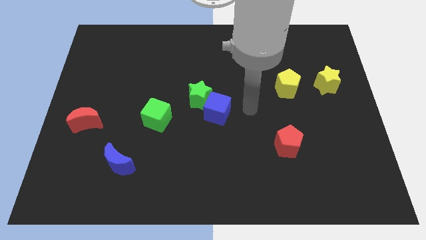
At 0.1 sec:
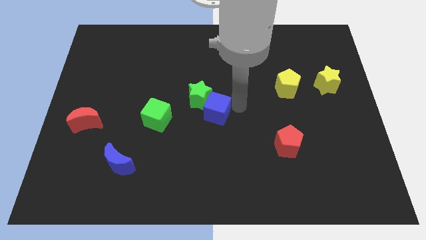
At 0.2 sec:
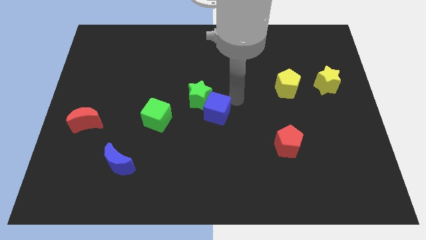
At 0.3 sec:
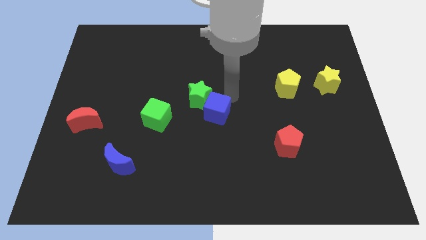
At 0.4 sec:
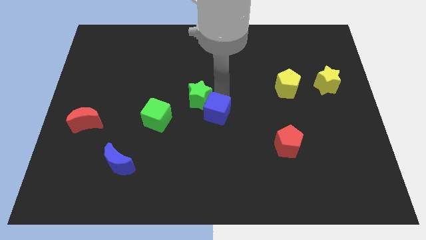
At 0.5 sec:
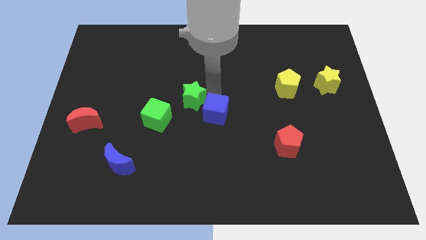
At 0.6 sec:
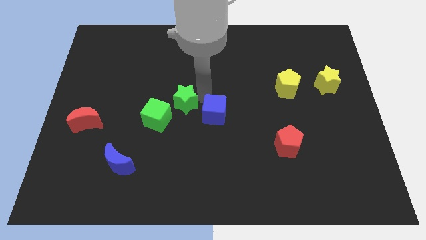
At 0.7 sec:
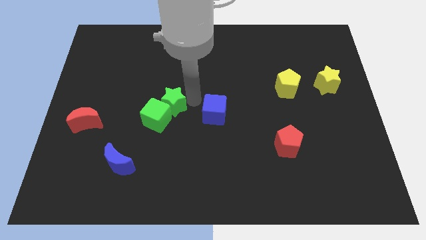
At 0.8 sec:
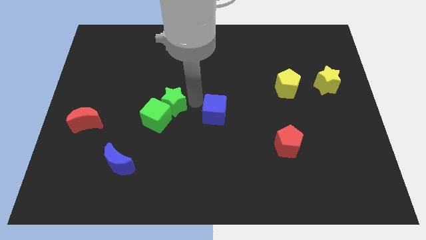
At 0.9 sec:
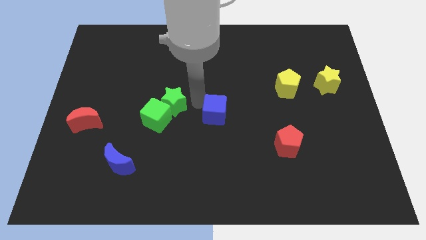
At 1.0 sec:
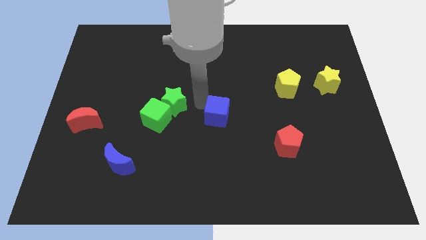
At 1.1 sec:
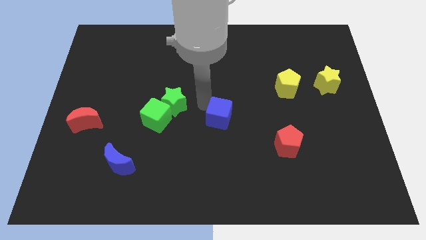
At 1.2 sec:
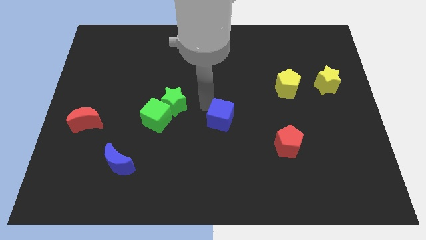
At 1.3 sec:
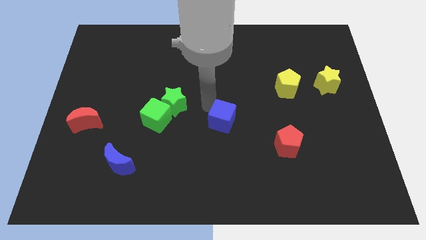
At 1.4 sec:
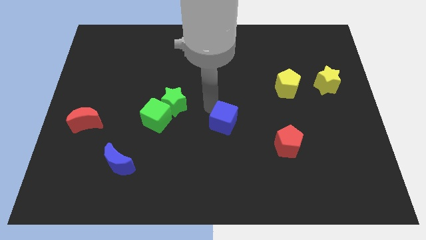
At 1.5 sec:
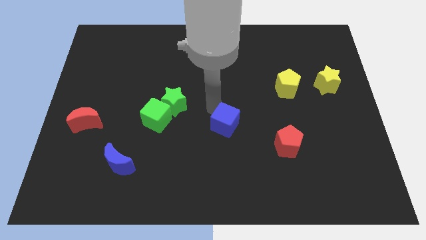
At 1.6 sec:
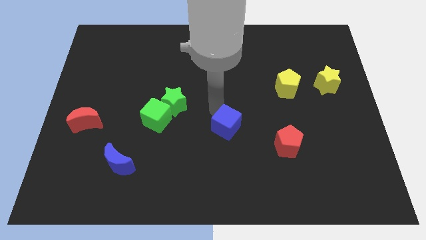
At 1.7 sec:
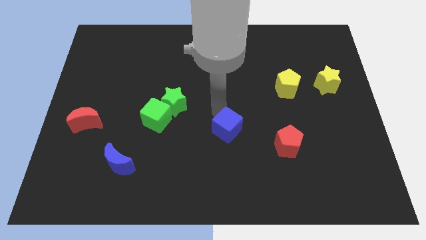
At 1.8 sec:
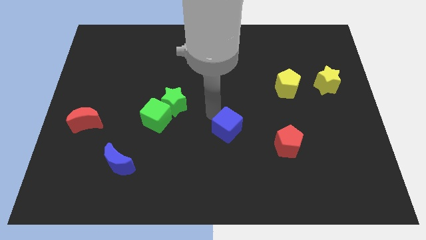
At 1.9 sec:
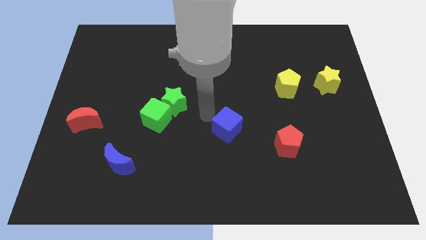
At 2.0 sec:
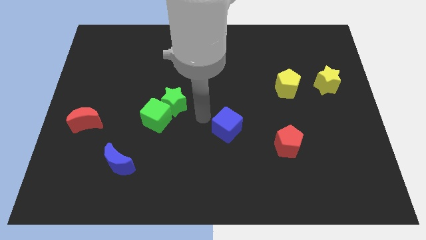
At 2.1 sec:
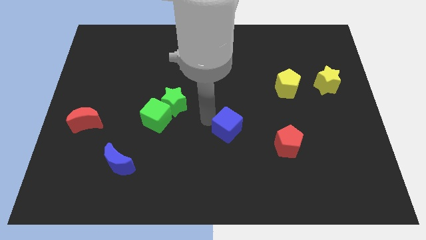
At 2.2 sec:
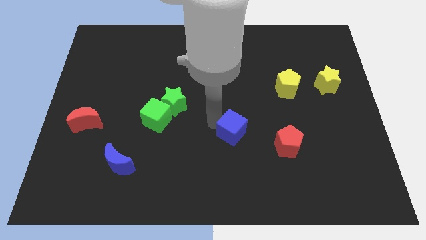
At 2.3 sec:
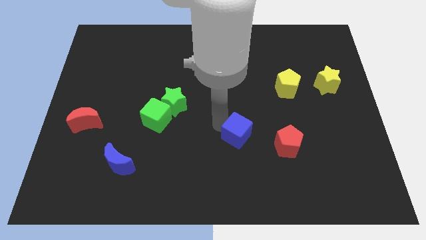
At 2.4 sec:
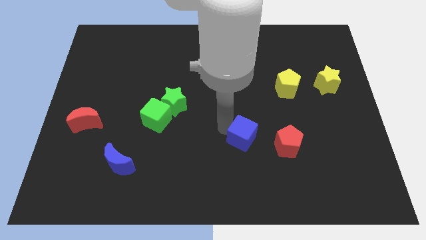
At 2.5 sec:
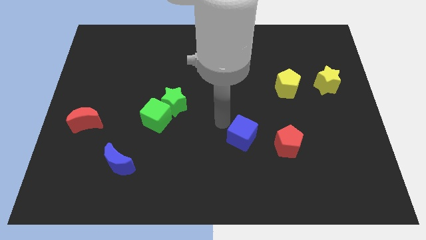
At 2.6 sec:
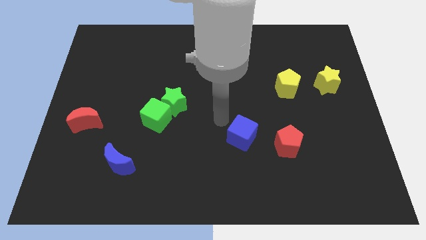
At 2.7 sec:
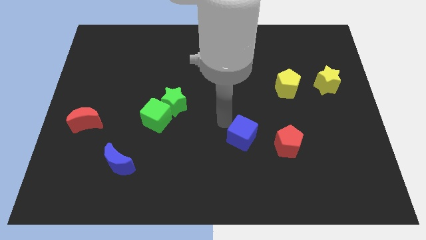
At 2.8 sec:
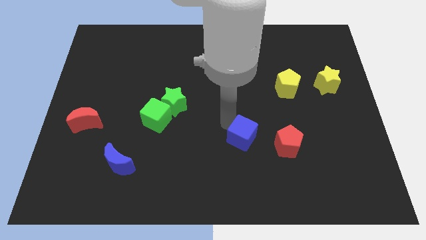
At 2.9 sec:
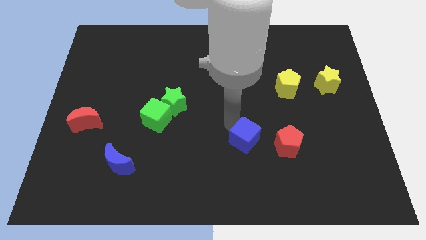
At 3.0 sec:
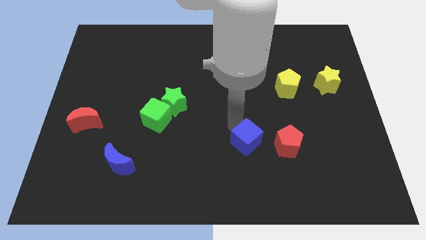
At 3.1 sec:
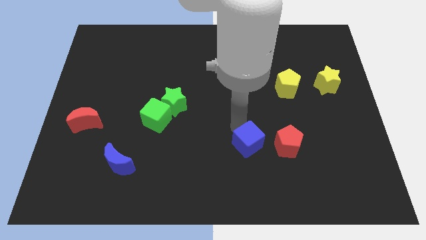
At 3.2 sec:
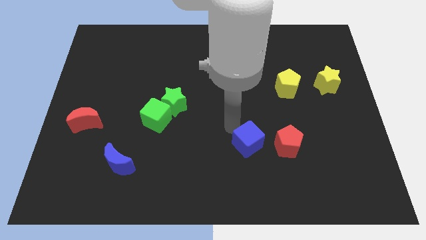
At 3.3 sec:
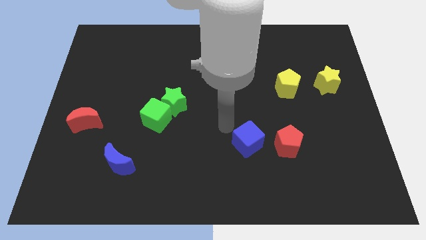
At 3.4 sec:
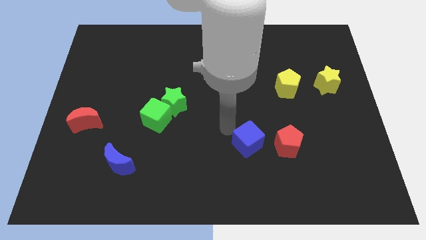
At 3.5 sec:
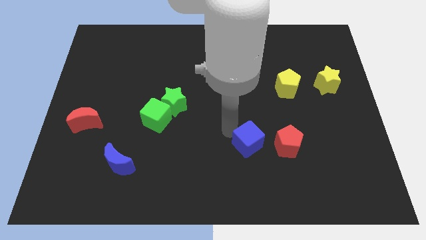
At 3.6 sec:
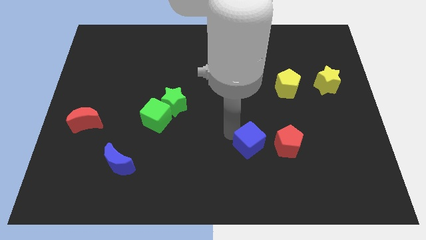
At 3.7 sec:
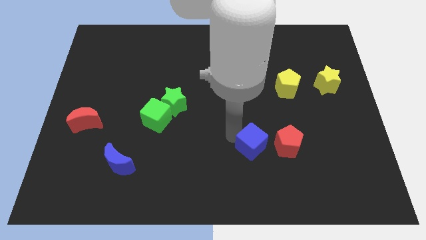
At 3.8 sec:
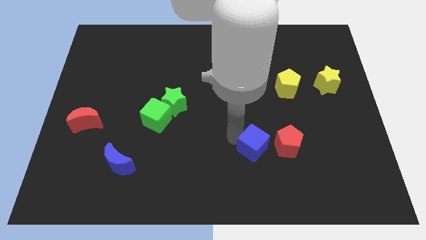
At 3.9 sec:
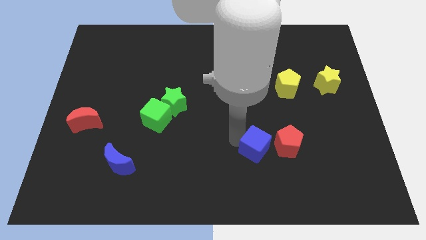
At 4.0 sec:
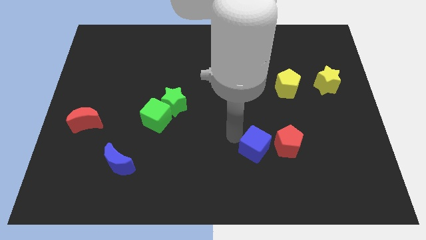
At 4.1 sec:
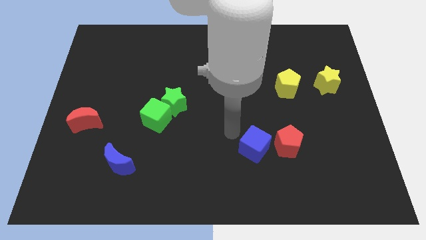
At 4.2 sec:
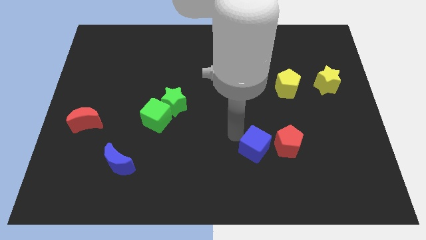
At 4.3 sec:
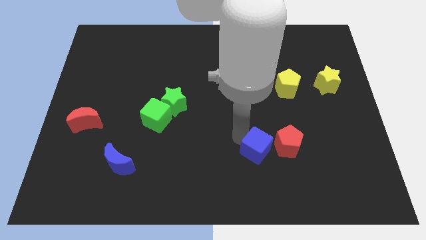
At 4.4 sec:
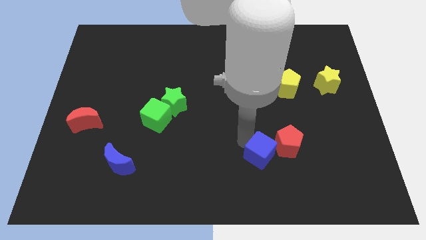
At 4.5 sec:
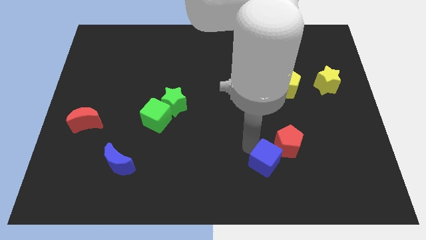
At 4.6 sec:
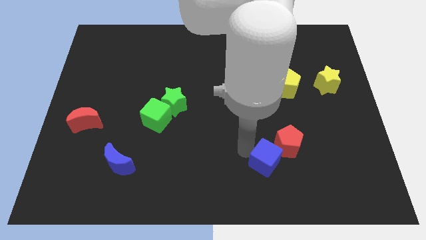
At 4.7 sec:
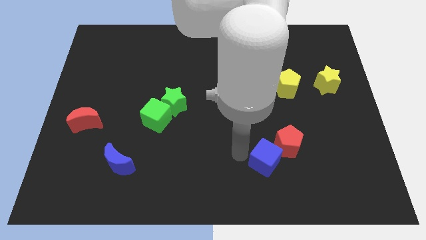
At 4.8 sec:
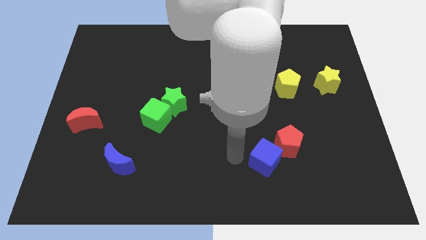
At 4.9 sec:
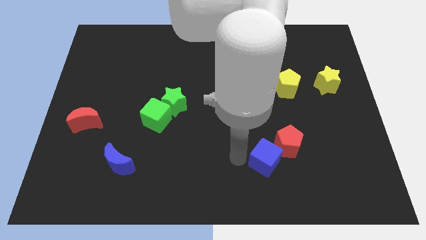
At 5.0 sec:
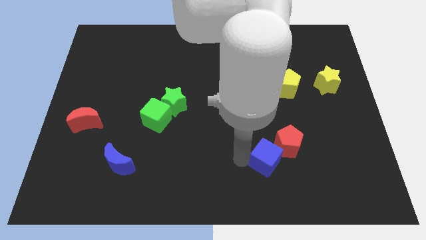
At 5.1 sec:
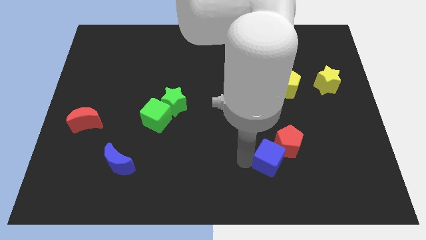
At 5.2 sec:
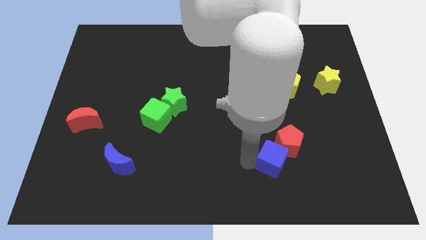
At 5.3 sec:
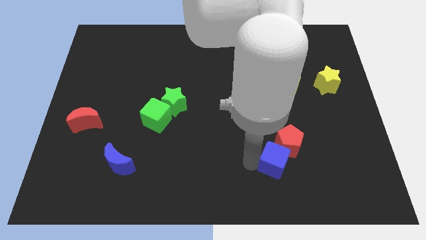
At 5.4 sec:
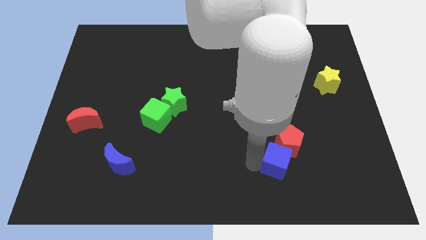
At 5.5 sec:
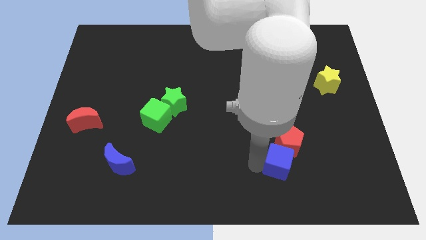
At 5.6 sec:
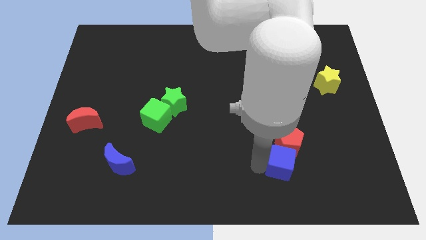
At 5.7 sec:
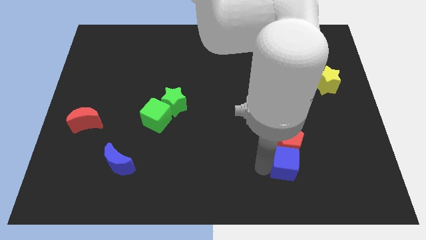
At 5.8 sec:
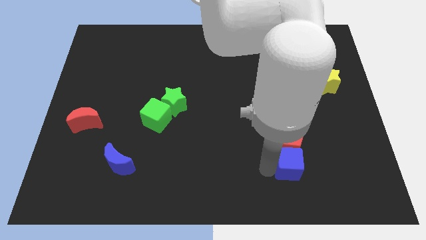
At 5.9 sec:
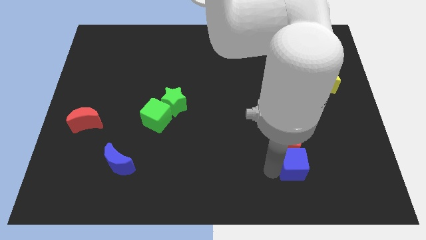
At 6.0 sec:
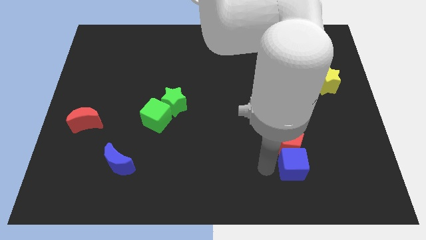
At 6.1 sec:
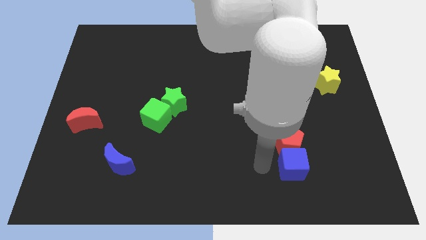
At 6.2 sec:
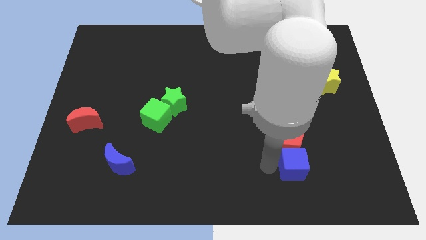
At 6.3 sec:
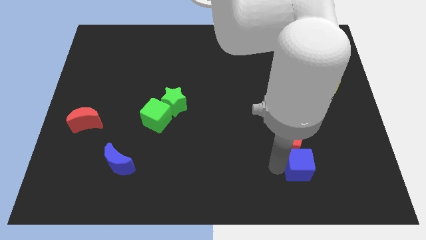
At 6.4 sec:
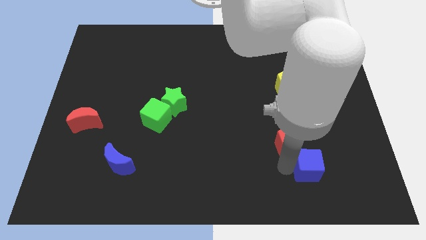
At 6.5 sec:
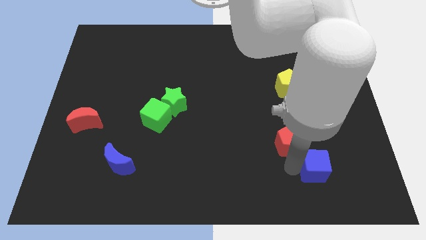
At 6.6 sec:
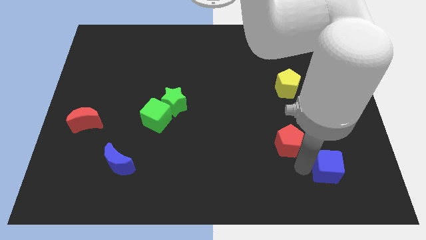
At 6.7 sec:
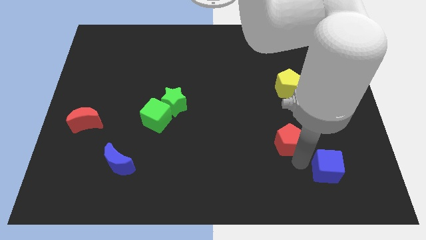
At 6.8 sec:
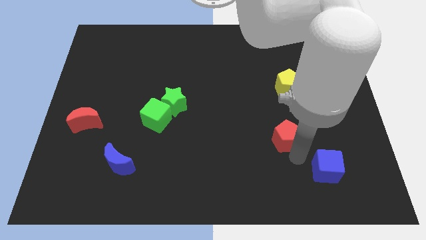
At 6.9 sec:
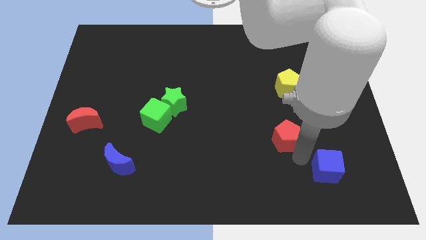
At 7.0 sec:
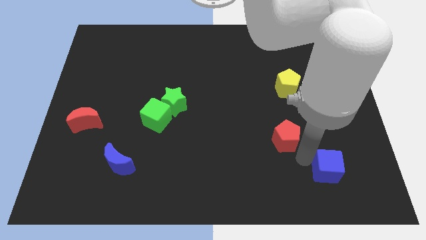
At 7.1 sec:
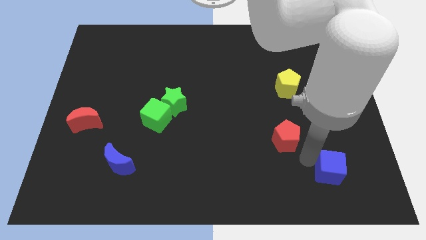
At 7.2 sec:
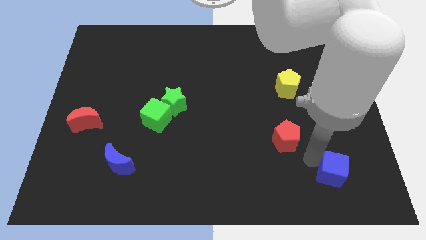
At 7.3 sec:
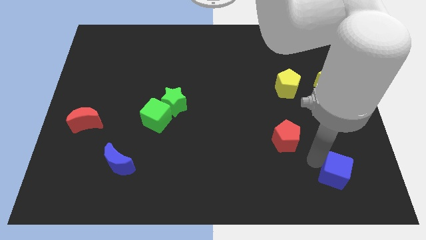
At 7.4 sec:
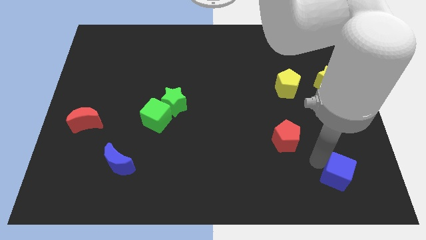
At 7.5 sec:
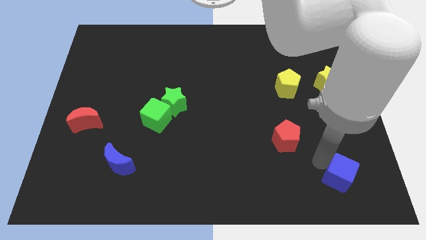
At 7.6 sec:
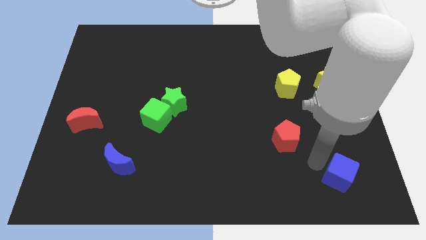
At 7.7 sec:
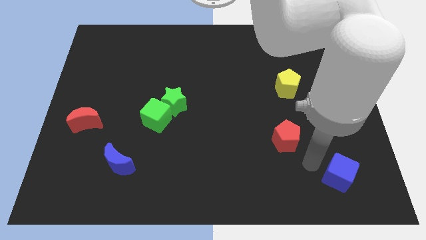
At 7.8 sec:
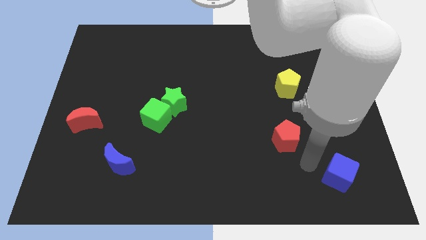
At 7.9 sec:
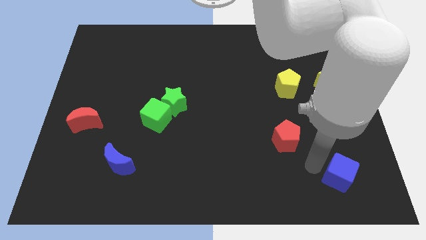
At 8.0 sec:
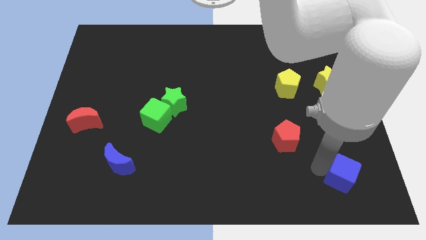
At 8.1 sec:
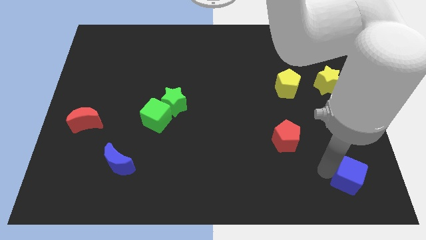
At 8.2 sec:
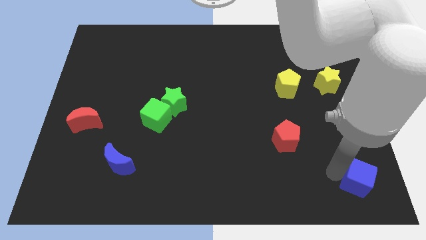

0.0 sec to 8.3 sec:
slide the blue cube to the bottom right of the board
